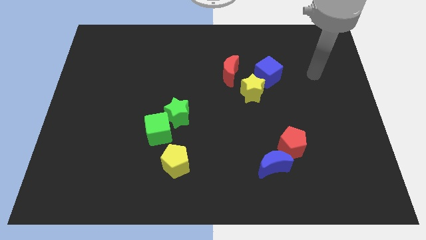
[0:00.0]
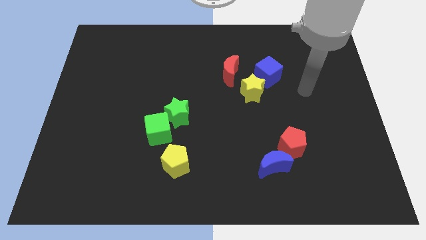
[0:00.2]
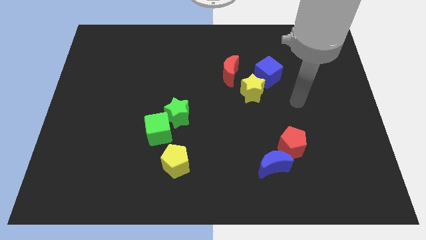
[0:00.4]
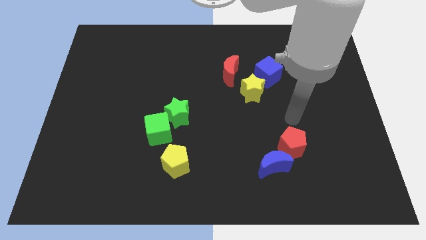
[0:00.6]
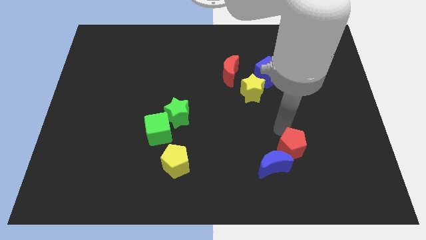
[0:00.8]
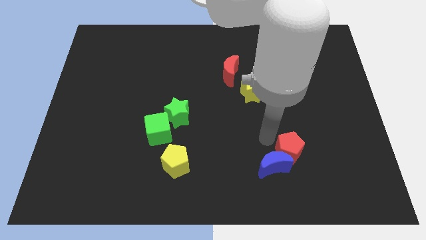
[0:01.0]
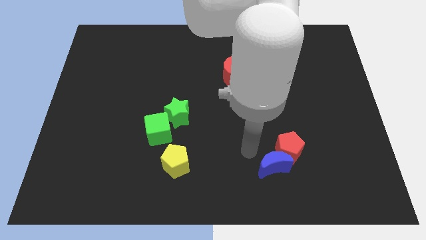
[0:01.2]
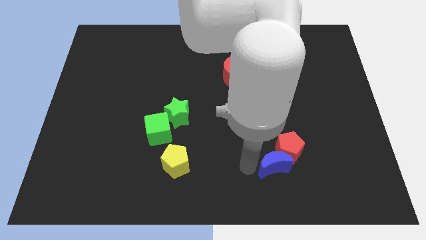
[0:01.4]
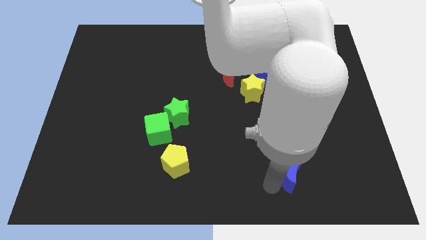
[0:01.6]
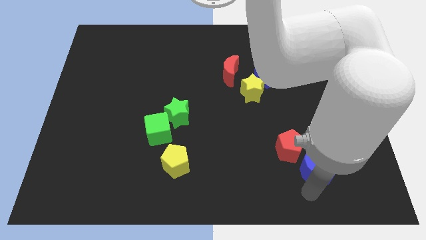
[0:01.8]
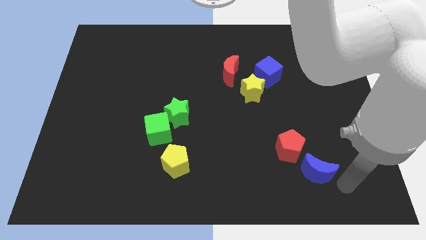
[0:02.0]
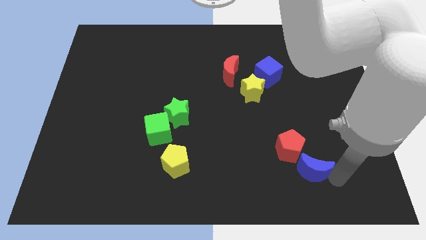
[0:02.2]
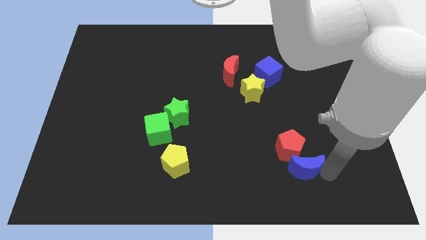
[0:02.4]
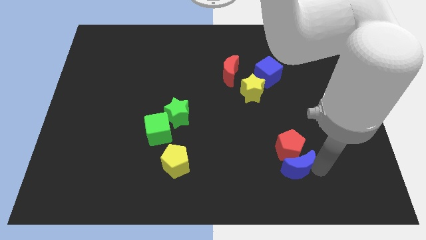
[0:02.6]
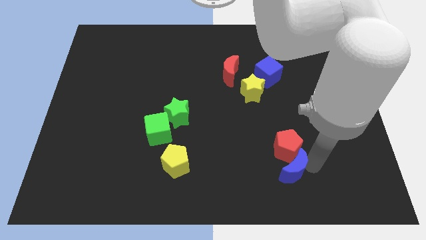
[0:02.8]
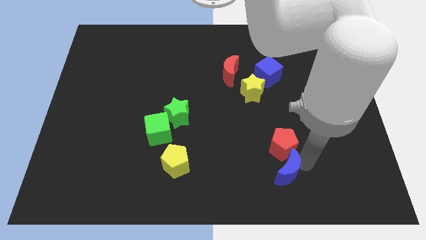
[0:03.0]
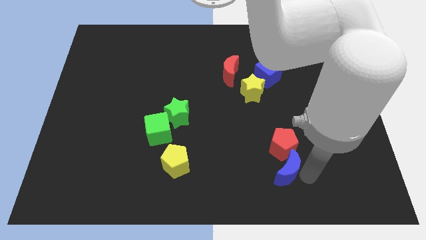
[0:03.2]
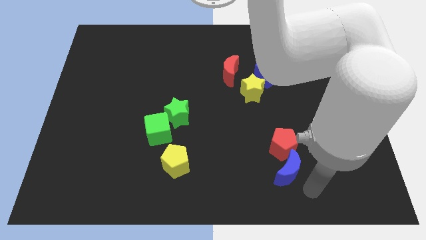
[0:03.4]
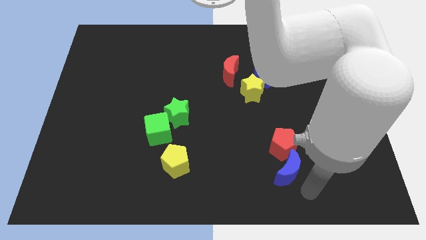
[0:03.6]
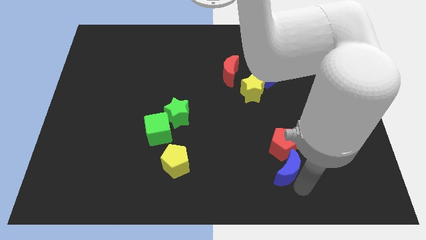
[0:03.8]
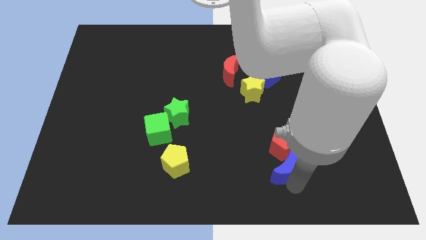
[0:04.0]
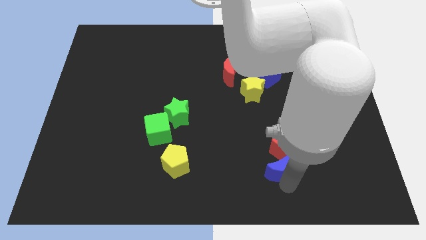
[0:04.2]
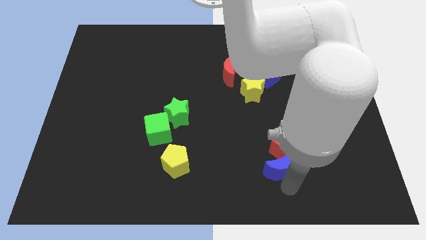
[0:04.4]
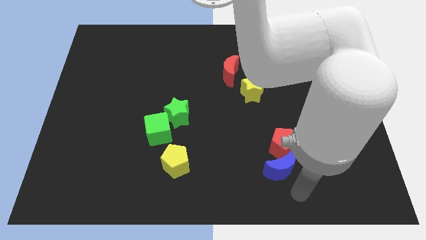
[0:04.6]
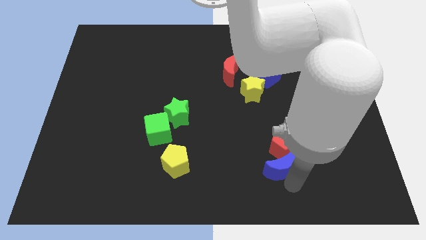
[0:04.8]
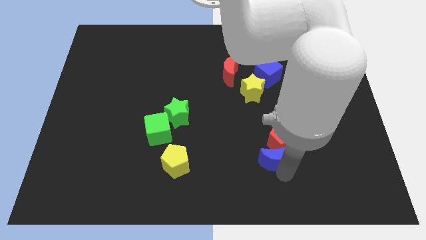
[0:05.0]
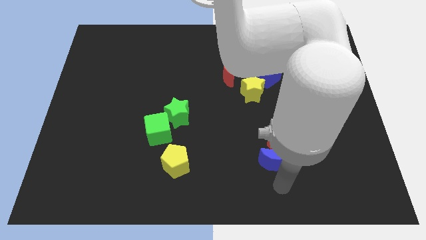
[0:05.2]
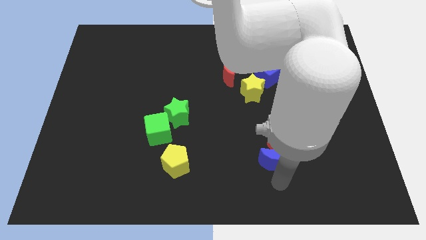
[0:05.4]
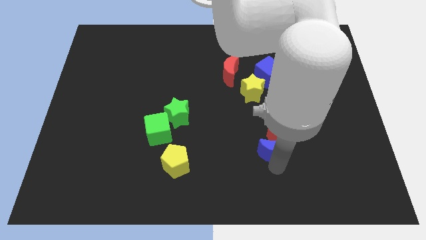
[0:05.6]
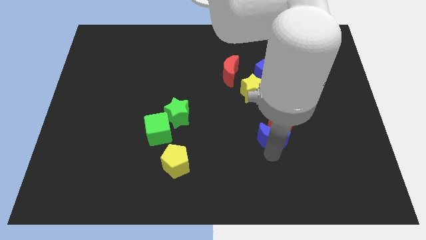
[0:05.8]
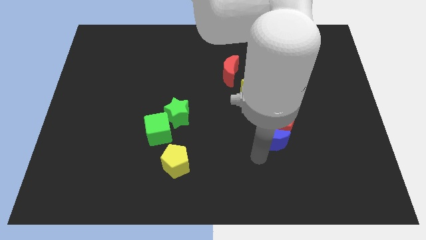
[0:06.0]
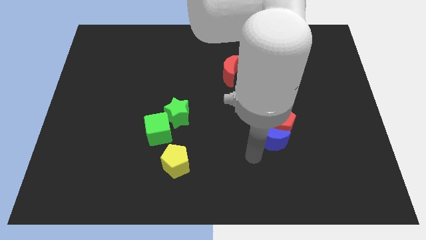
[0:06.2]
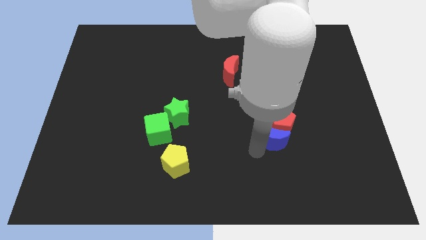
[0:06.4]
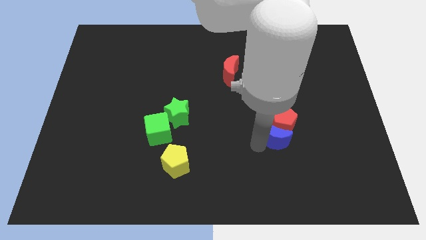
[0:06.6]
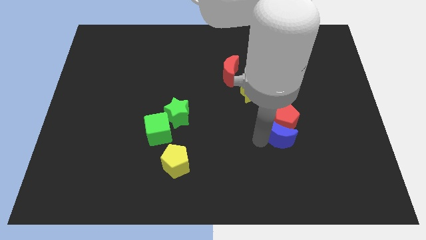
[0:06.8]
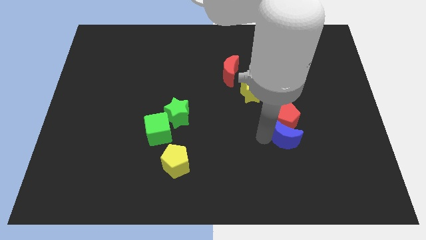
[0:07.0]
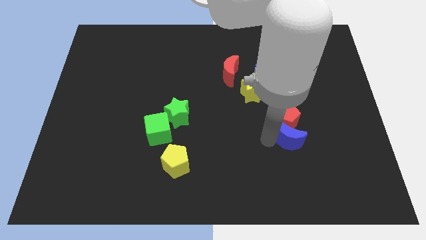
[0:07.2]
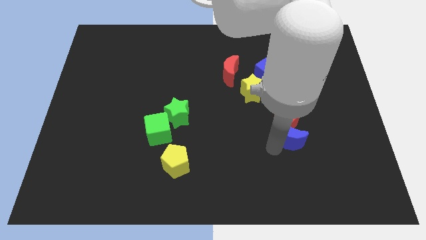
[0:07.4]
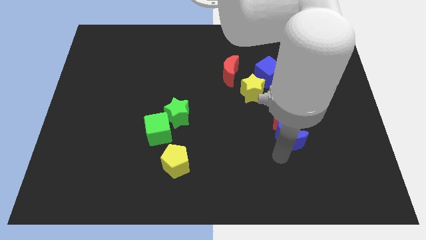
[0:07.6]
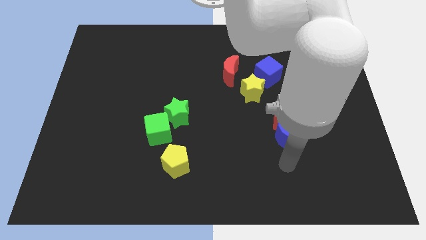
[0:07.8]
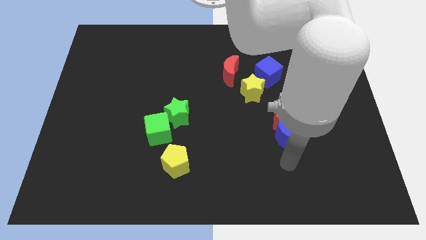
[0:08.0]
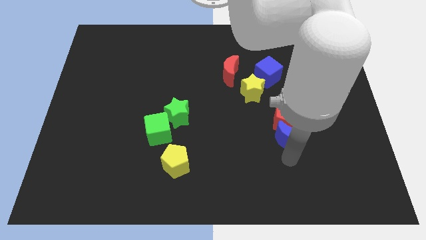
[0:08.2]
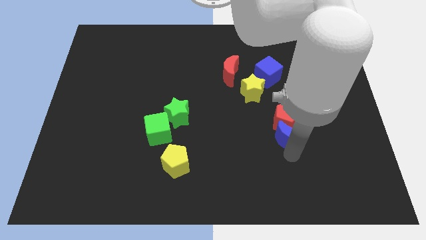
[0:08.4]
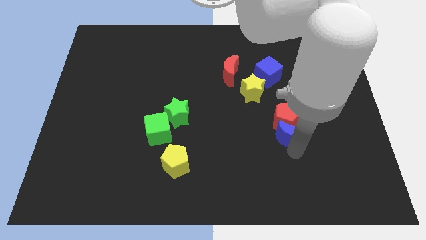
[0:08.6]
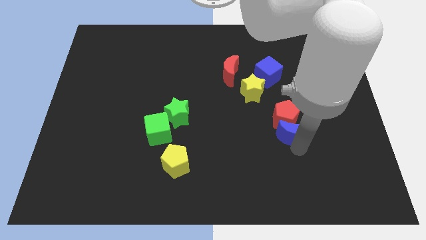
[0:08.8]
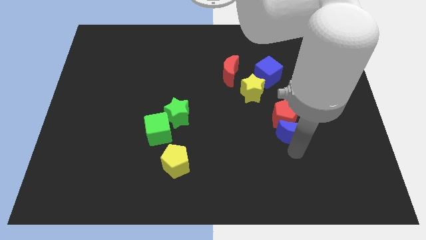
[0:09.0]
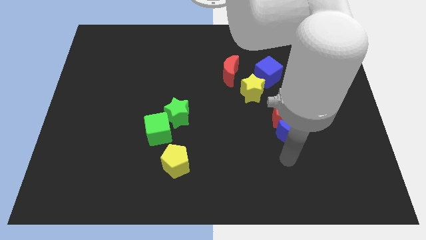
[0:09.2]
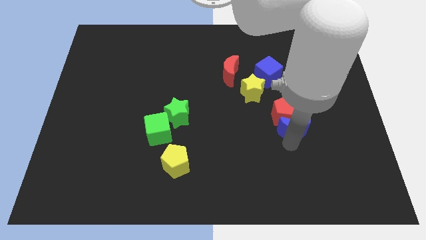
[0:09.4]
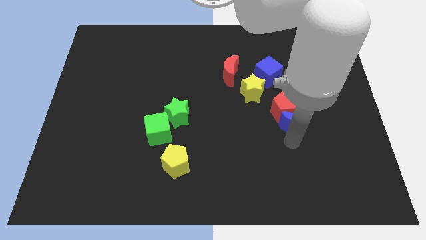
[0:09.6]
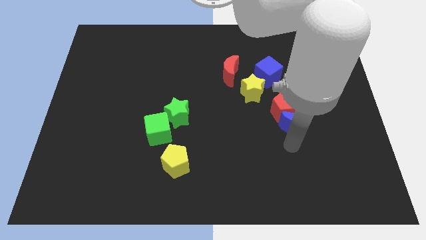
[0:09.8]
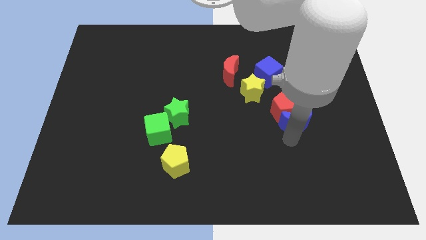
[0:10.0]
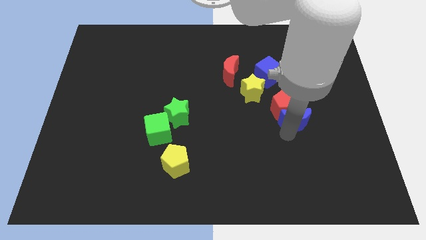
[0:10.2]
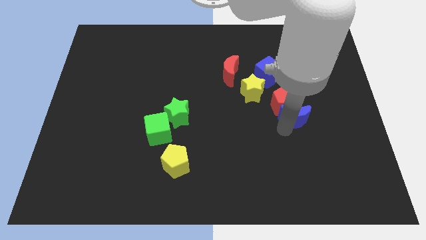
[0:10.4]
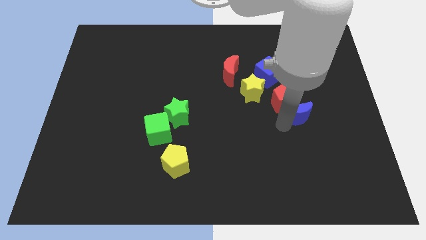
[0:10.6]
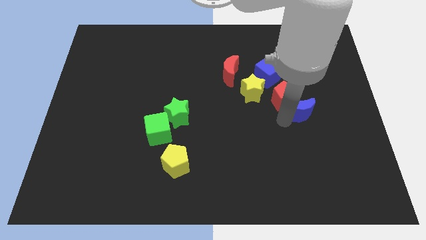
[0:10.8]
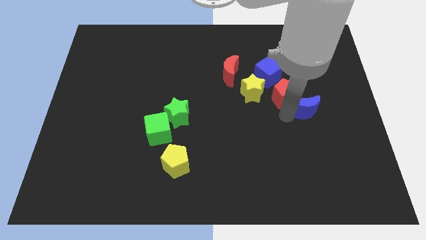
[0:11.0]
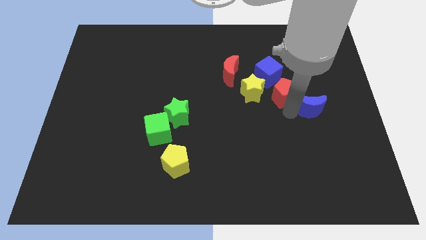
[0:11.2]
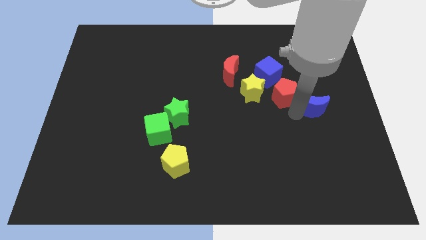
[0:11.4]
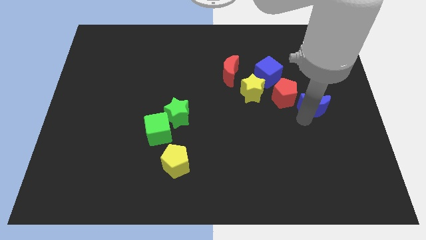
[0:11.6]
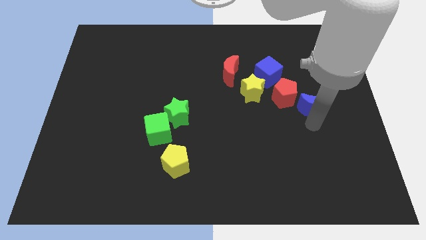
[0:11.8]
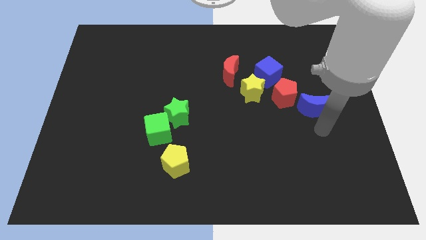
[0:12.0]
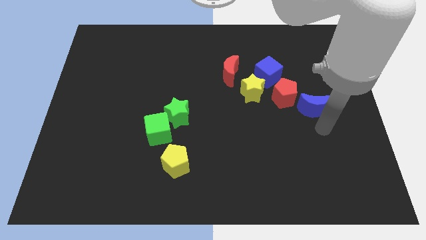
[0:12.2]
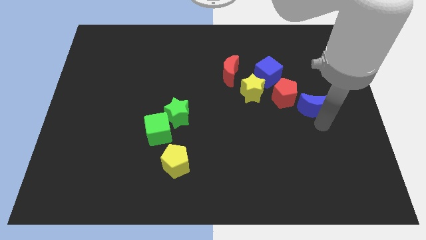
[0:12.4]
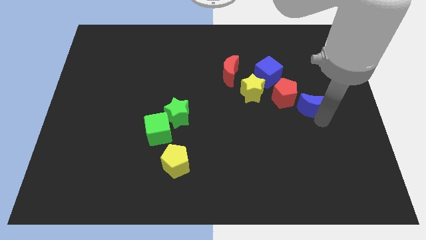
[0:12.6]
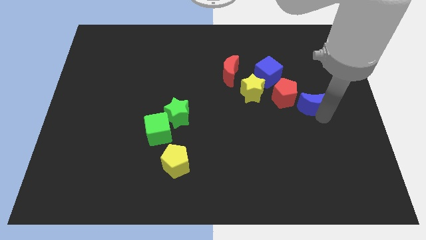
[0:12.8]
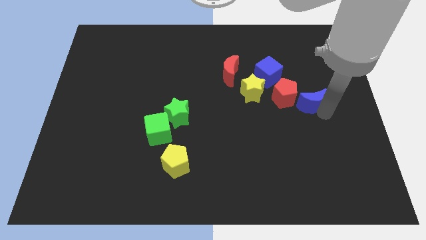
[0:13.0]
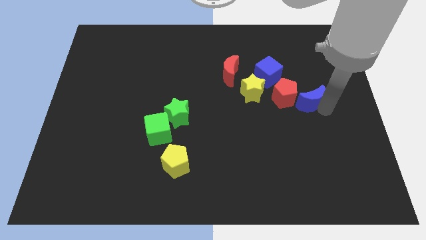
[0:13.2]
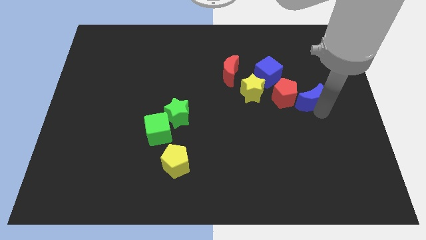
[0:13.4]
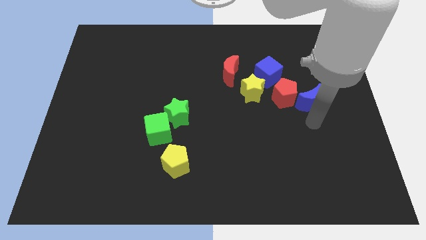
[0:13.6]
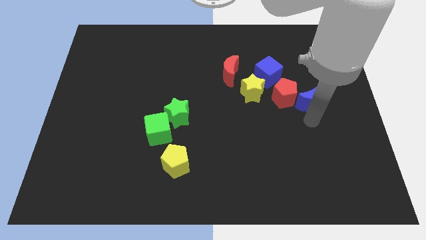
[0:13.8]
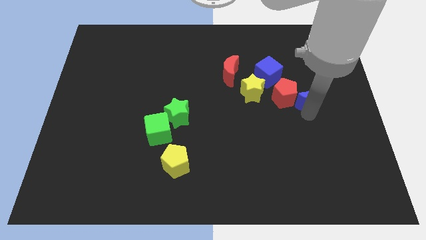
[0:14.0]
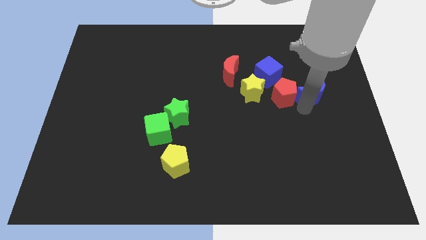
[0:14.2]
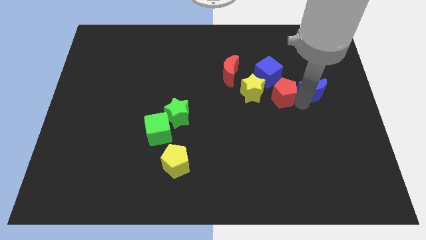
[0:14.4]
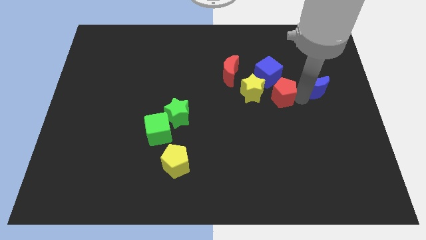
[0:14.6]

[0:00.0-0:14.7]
move the blue moon just right of the blue cube

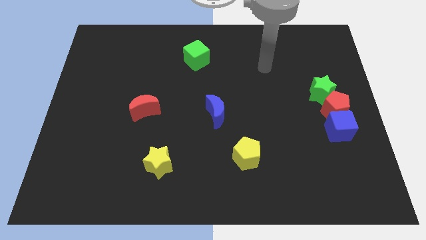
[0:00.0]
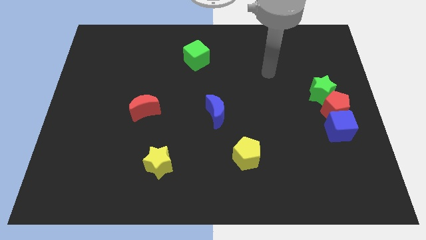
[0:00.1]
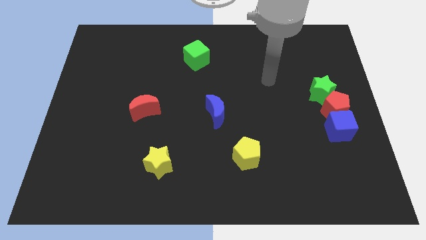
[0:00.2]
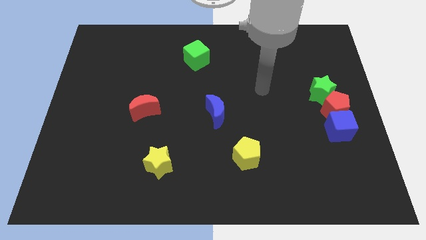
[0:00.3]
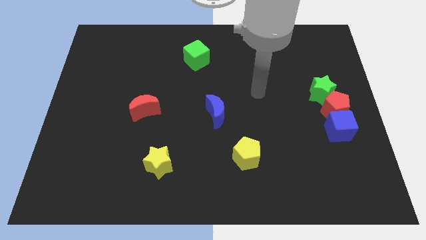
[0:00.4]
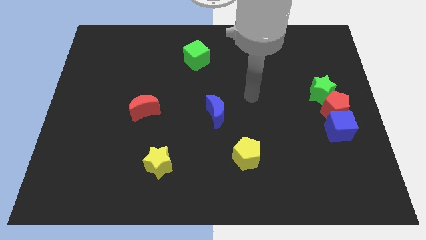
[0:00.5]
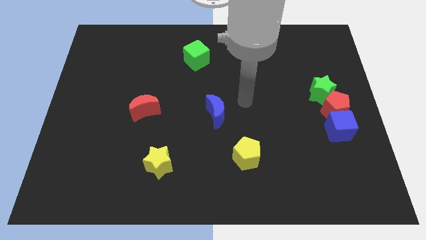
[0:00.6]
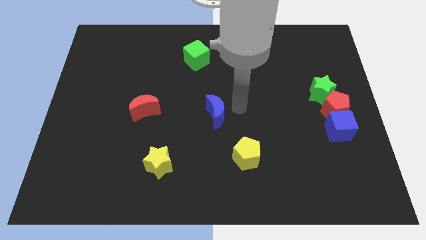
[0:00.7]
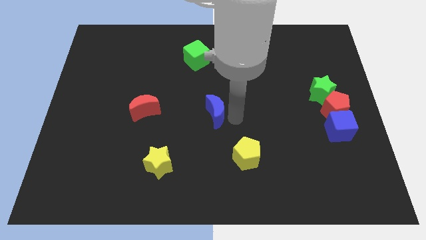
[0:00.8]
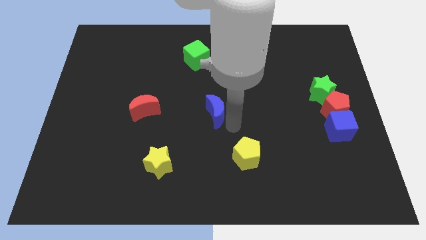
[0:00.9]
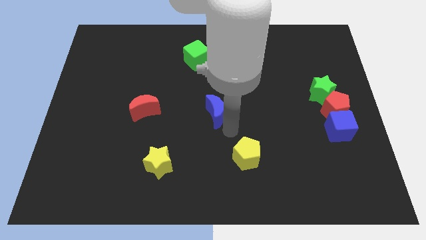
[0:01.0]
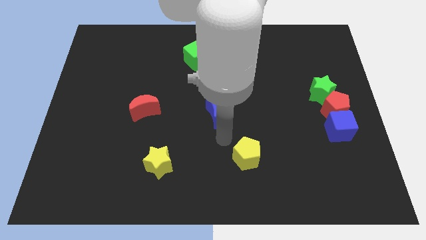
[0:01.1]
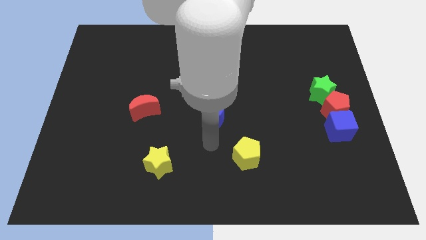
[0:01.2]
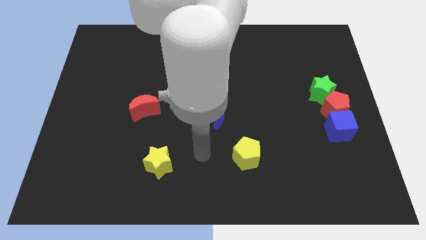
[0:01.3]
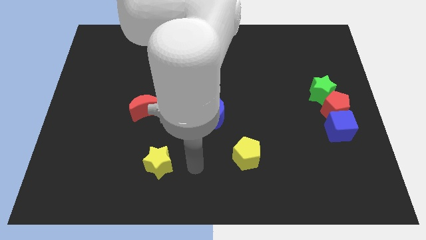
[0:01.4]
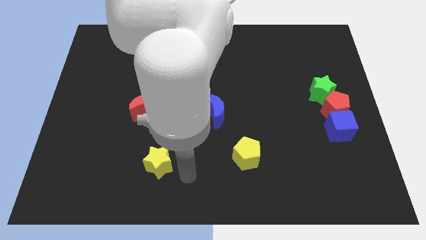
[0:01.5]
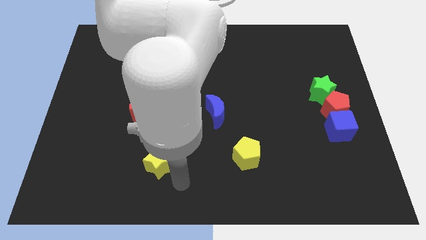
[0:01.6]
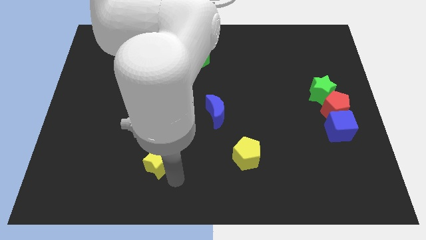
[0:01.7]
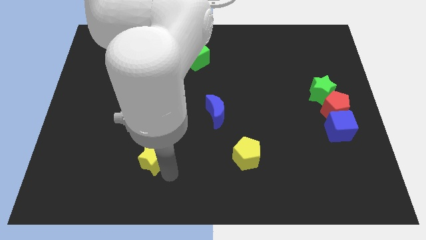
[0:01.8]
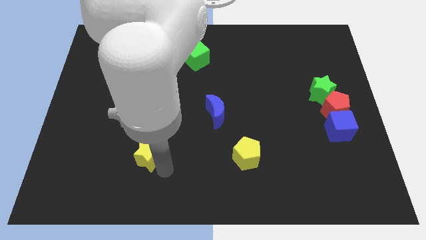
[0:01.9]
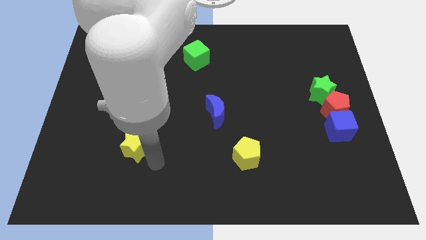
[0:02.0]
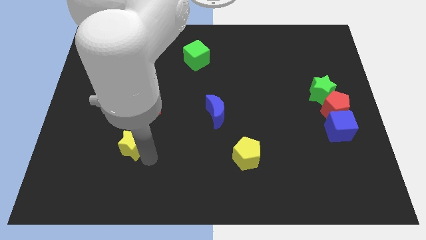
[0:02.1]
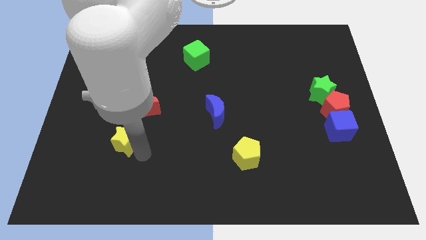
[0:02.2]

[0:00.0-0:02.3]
move the yellow star to the bottom left side of the red moon
